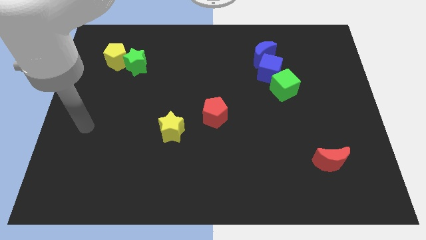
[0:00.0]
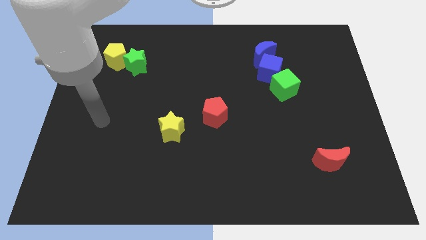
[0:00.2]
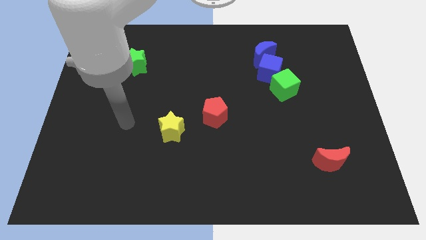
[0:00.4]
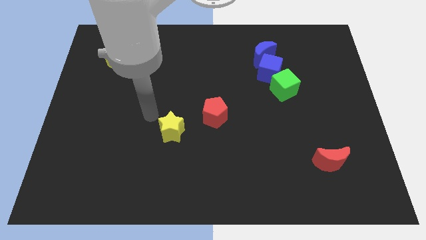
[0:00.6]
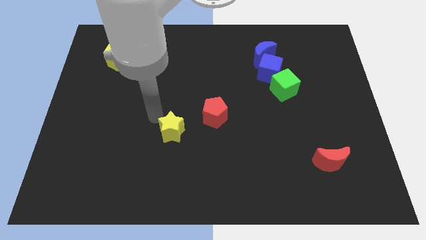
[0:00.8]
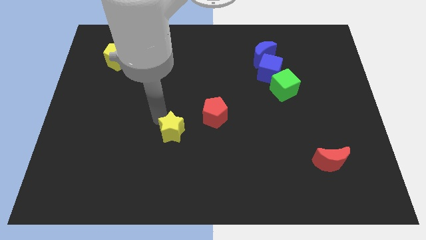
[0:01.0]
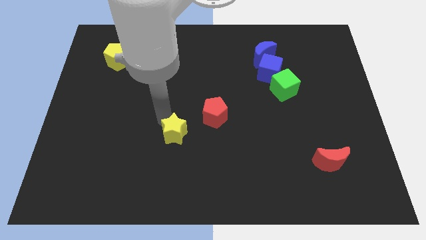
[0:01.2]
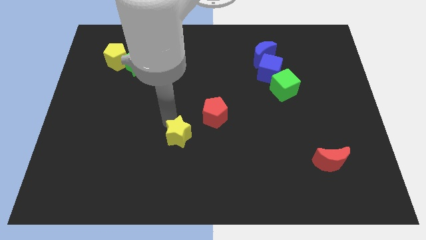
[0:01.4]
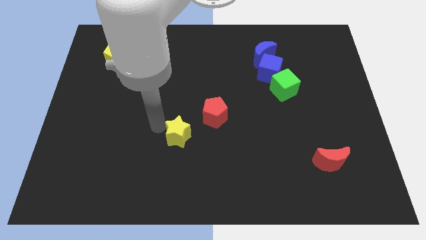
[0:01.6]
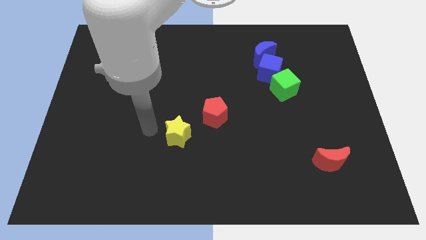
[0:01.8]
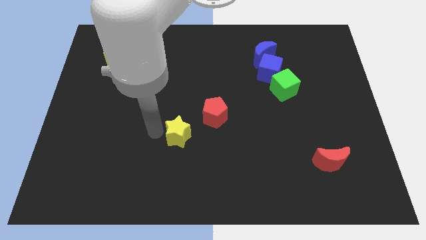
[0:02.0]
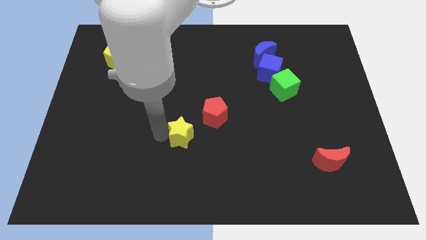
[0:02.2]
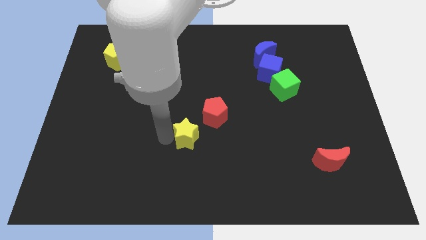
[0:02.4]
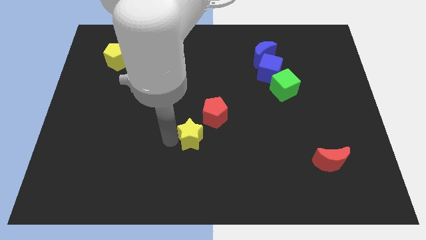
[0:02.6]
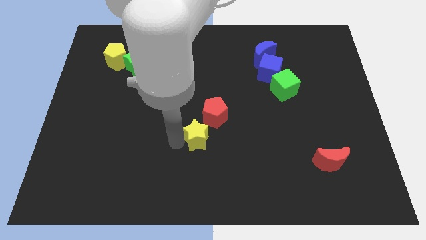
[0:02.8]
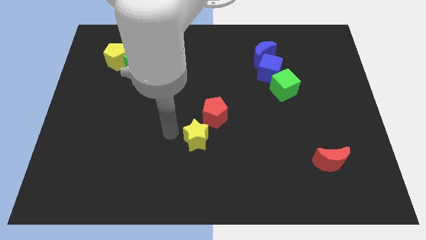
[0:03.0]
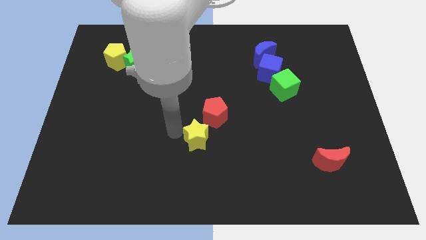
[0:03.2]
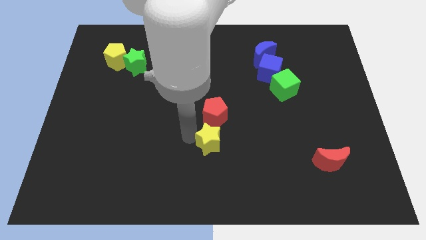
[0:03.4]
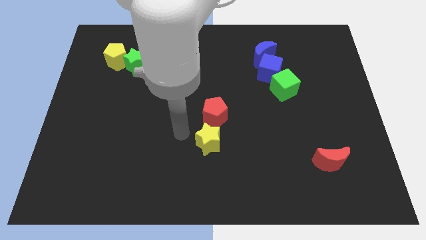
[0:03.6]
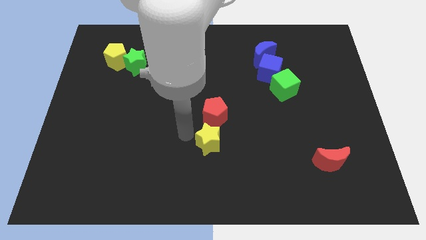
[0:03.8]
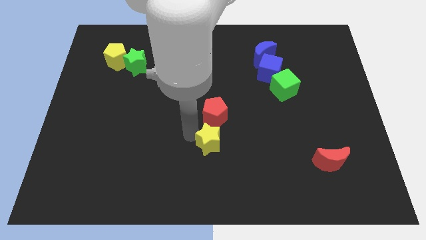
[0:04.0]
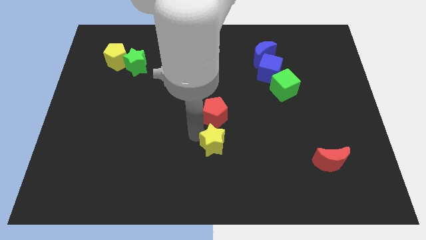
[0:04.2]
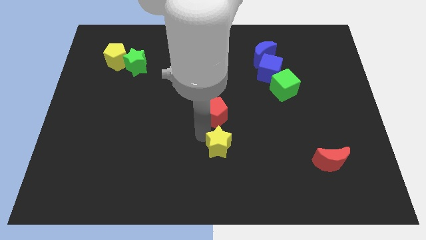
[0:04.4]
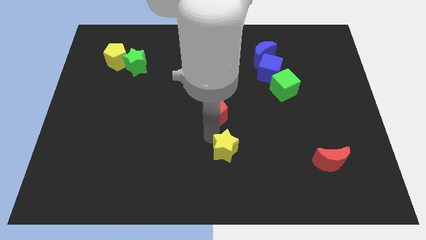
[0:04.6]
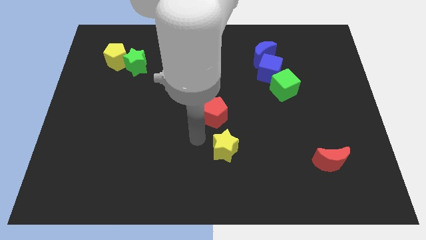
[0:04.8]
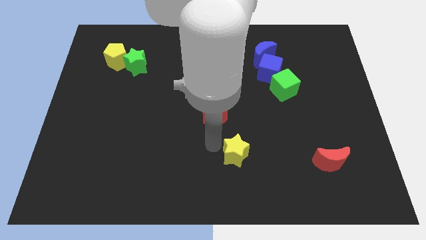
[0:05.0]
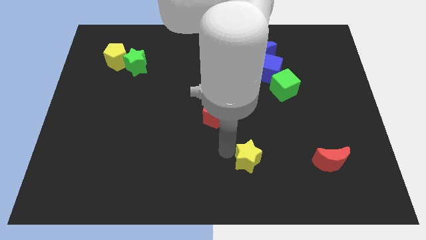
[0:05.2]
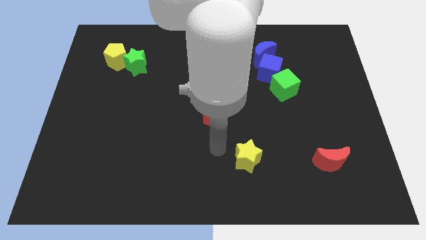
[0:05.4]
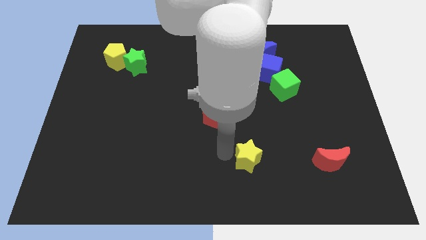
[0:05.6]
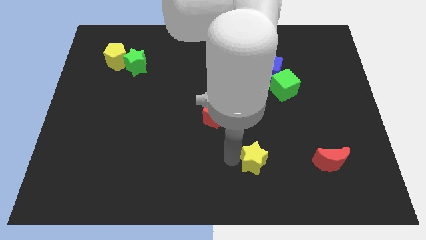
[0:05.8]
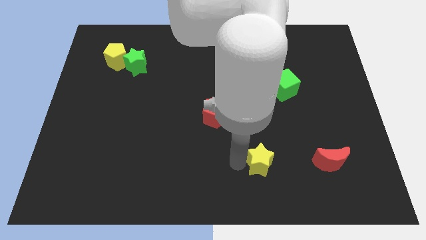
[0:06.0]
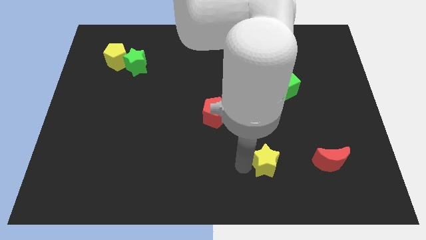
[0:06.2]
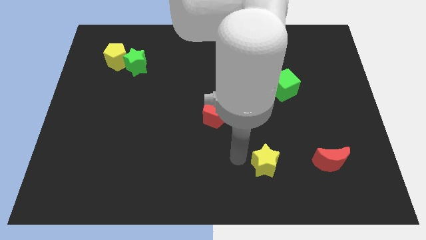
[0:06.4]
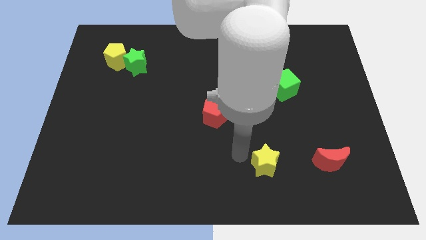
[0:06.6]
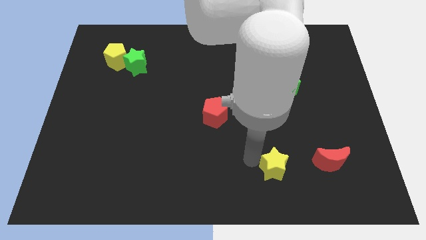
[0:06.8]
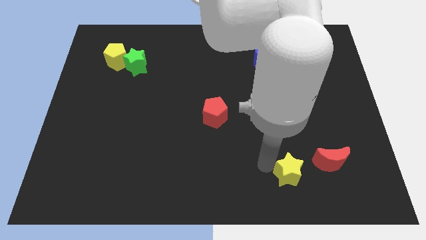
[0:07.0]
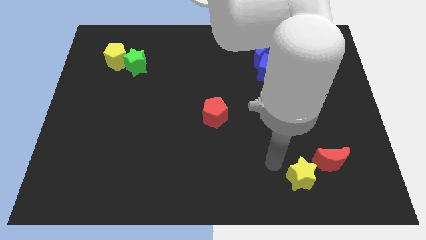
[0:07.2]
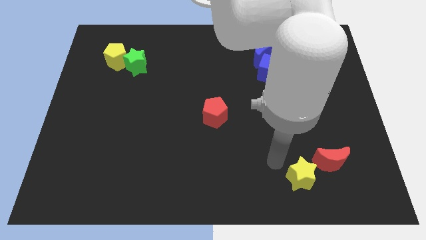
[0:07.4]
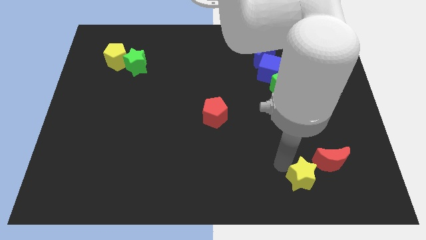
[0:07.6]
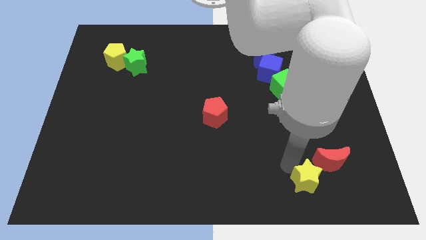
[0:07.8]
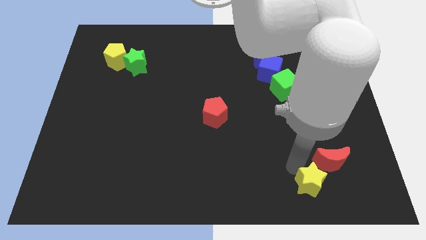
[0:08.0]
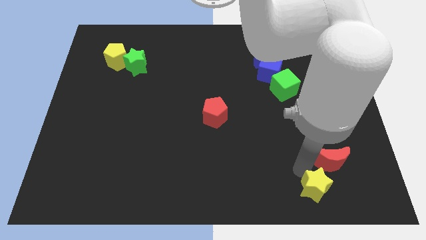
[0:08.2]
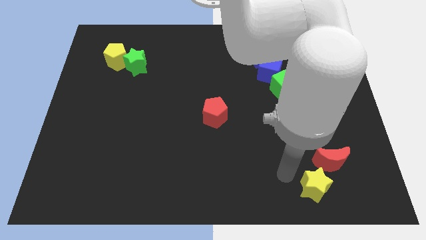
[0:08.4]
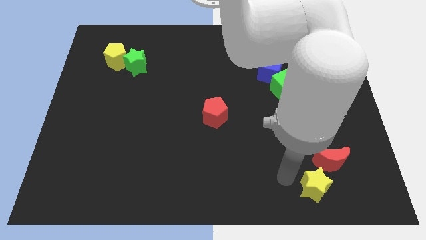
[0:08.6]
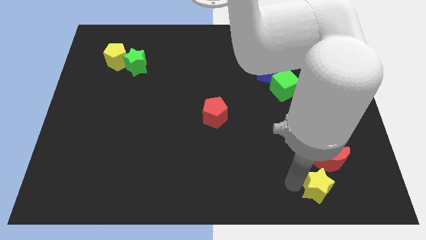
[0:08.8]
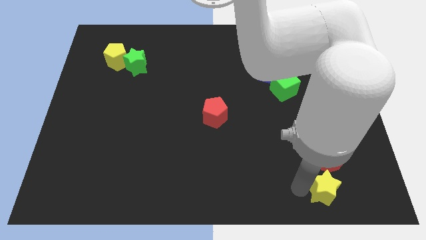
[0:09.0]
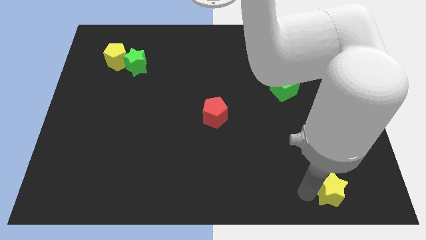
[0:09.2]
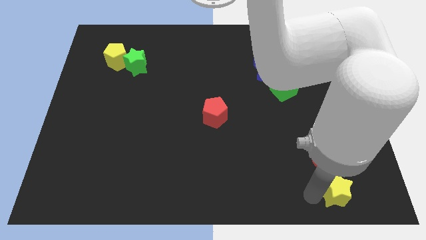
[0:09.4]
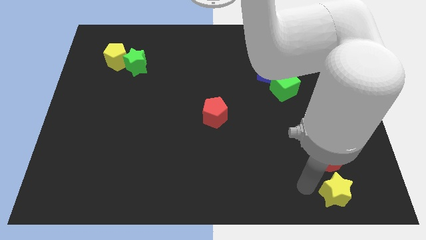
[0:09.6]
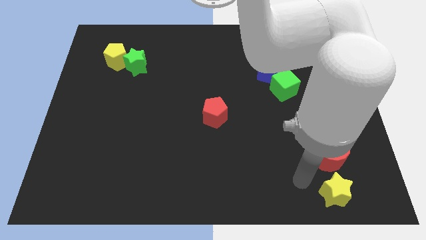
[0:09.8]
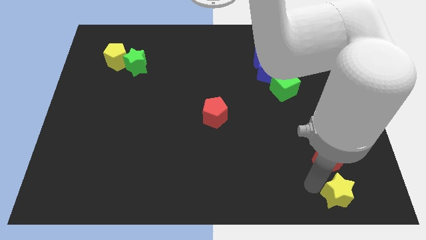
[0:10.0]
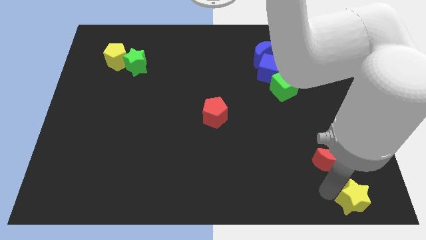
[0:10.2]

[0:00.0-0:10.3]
move the yellow star to the bottom right corner

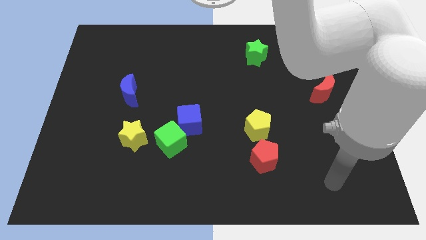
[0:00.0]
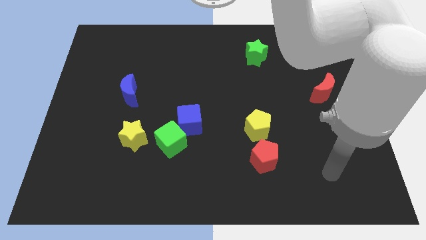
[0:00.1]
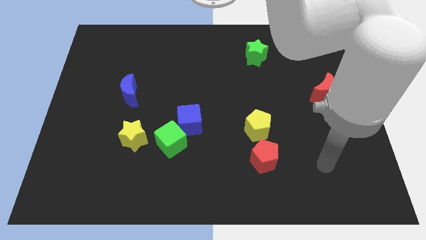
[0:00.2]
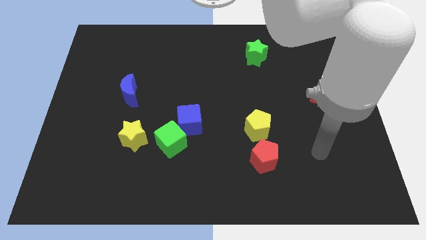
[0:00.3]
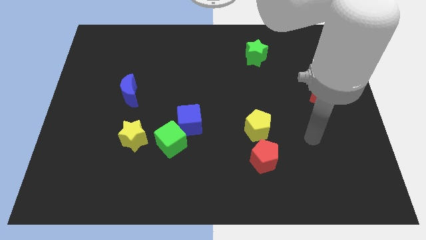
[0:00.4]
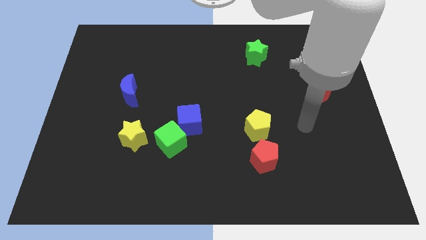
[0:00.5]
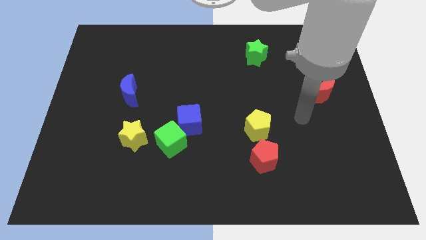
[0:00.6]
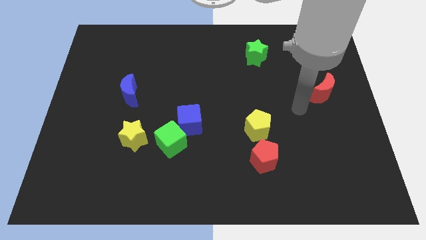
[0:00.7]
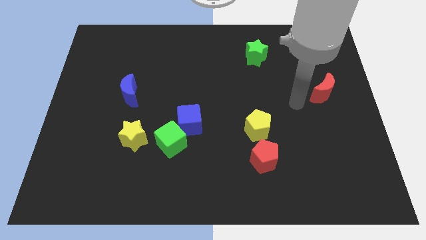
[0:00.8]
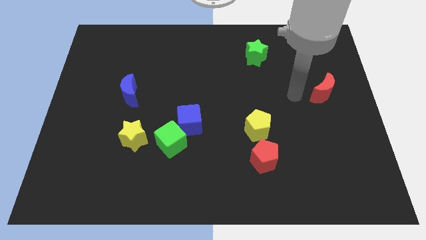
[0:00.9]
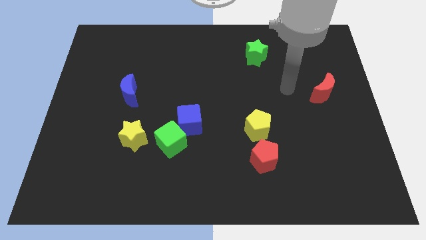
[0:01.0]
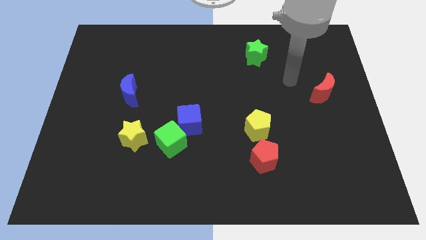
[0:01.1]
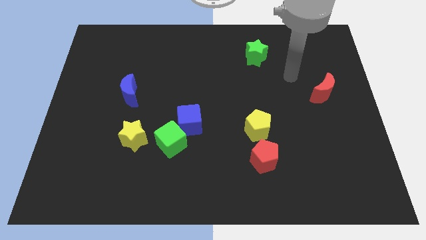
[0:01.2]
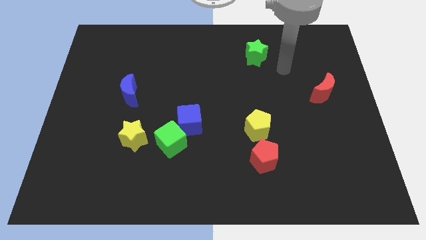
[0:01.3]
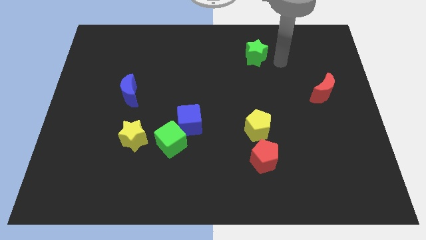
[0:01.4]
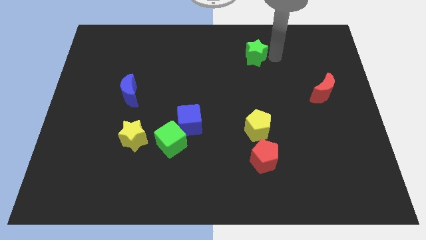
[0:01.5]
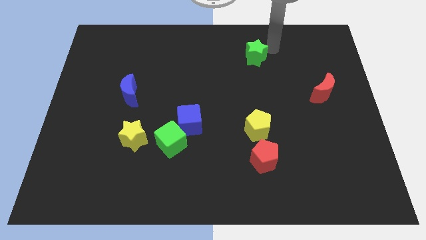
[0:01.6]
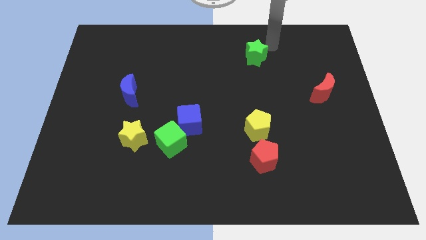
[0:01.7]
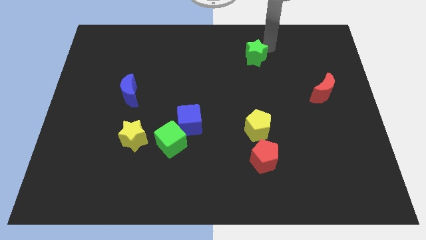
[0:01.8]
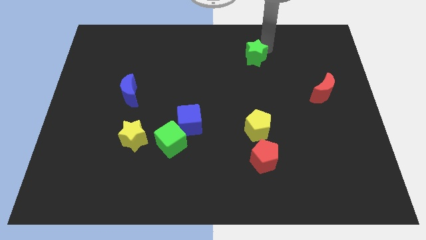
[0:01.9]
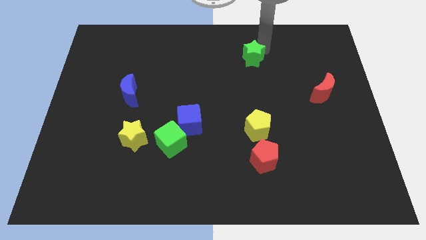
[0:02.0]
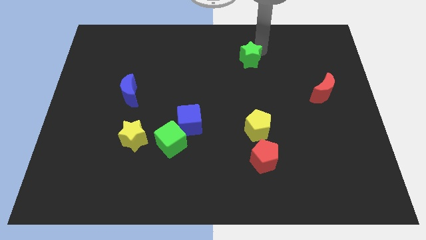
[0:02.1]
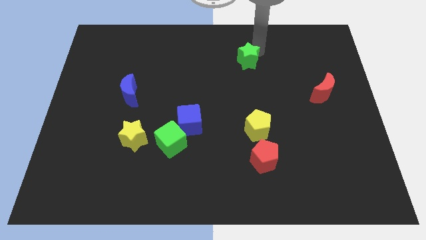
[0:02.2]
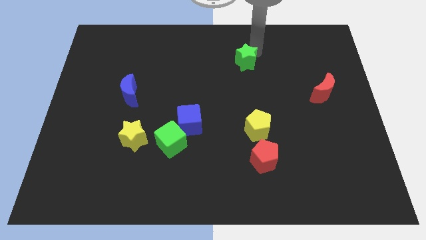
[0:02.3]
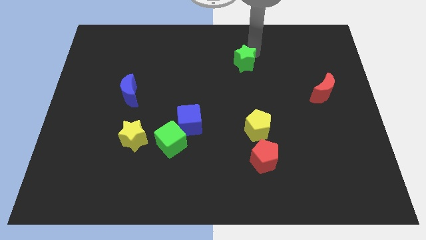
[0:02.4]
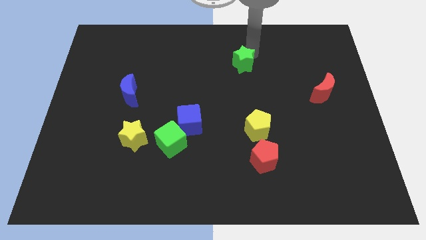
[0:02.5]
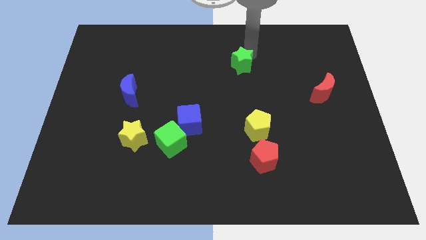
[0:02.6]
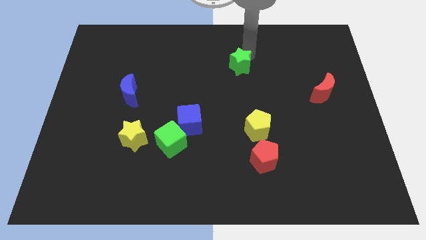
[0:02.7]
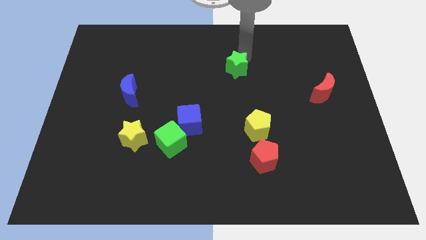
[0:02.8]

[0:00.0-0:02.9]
move the green star to the center of the board
